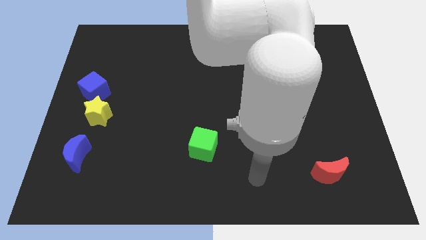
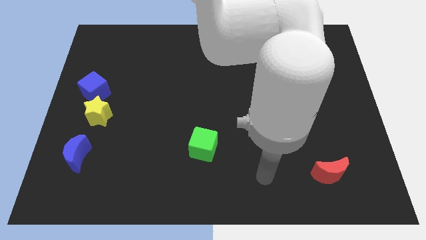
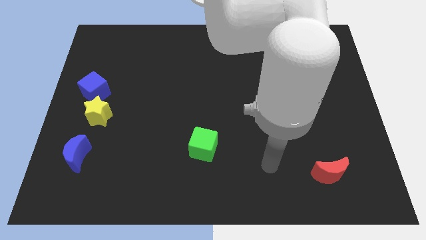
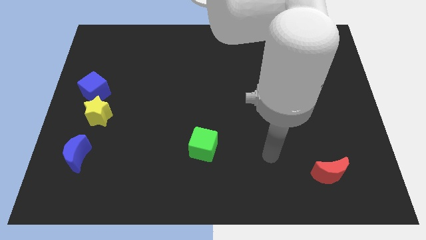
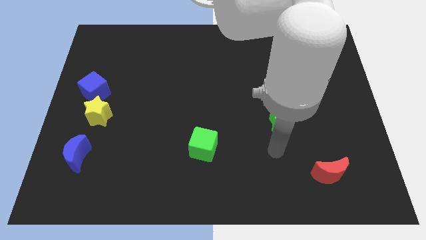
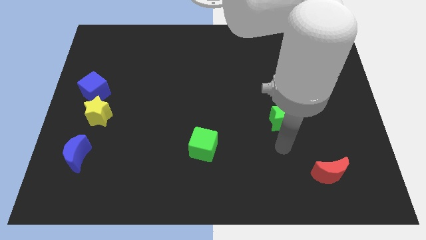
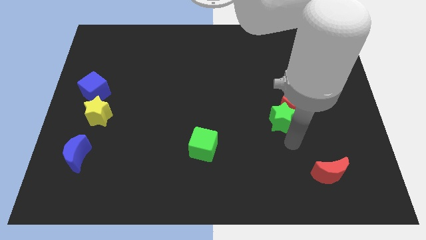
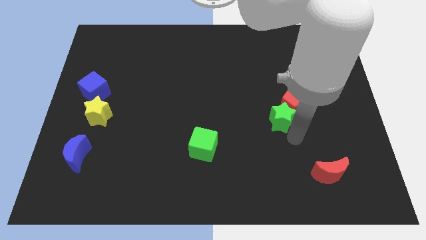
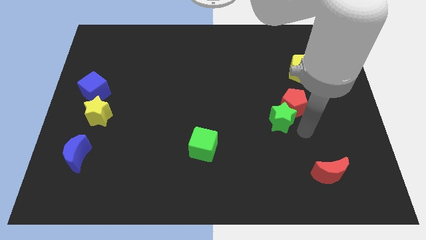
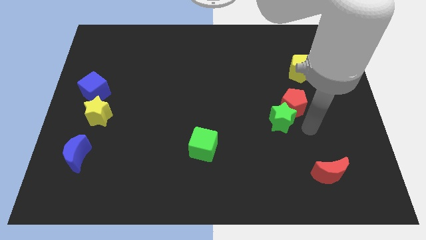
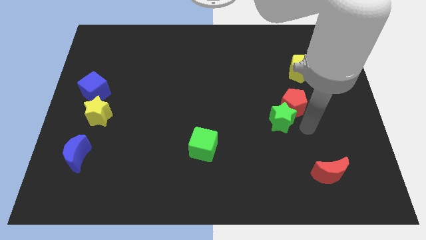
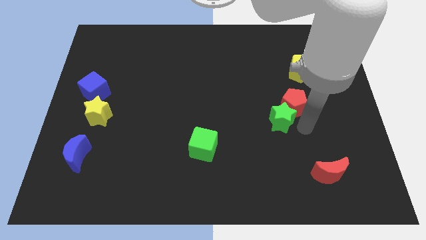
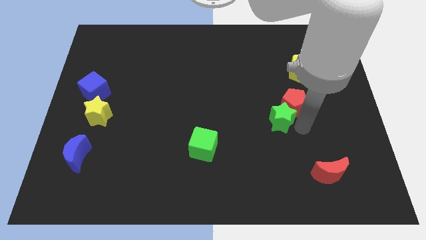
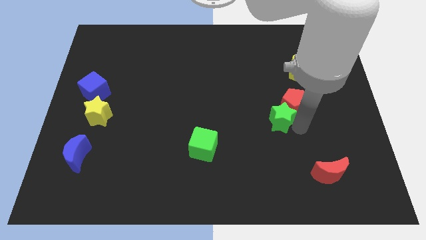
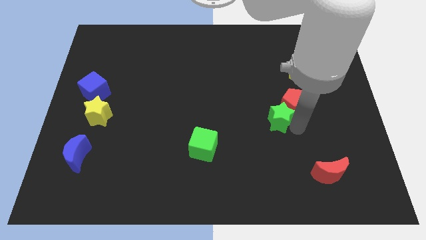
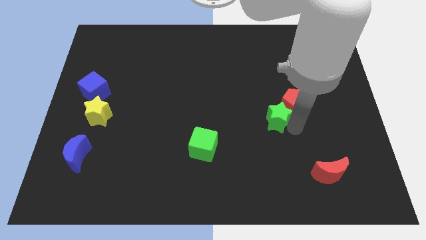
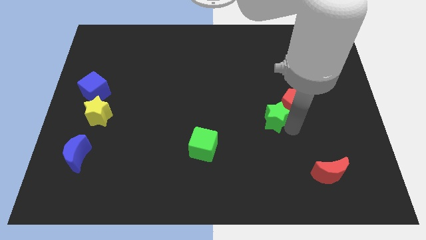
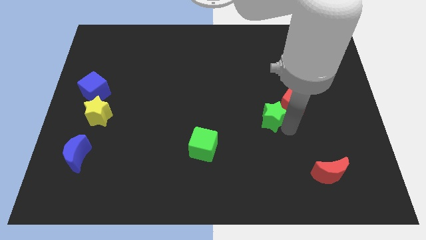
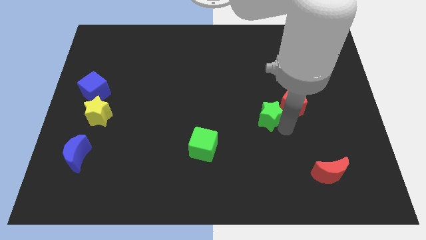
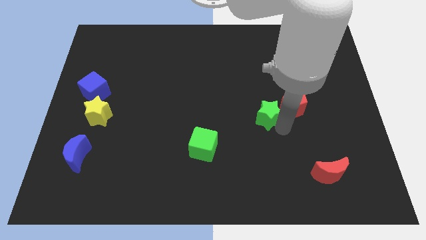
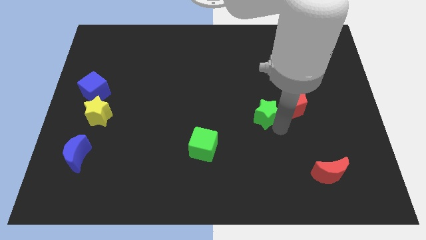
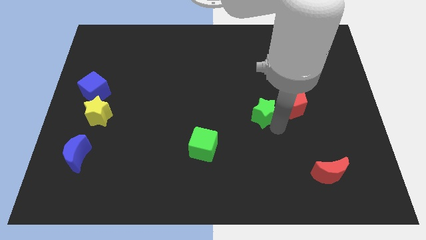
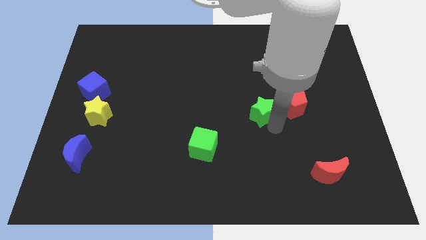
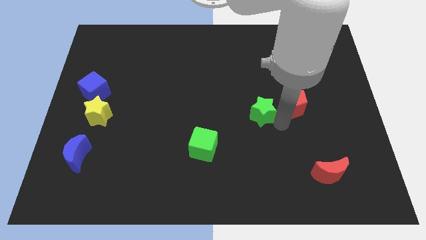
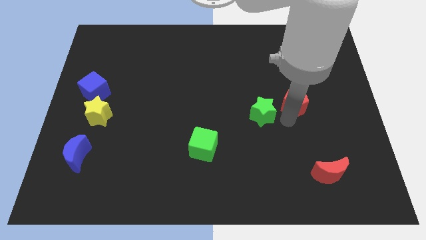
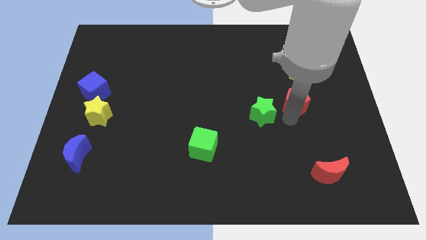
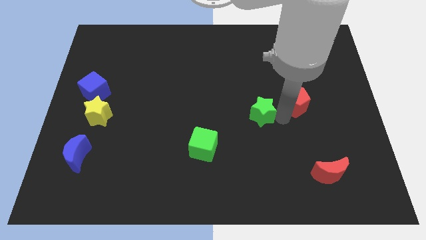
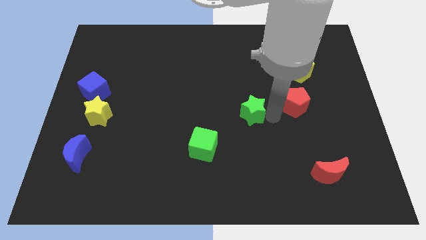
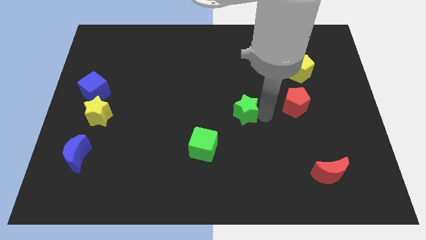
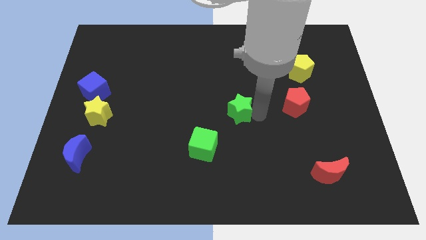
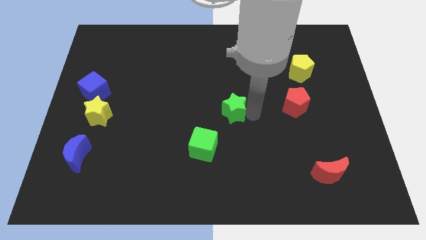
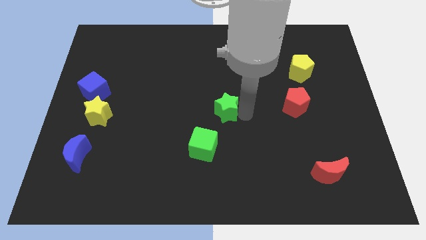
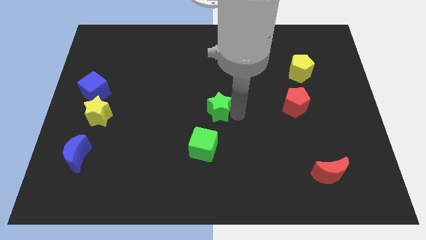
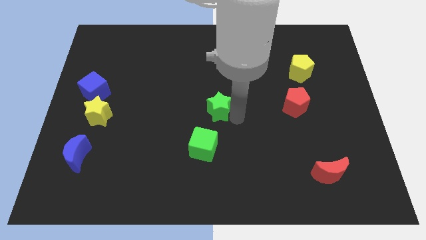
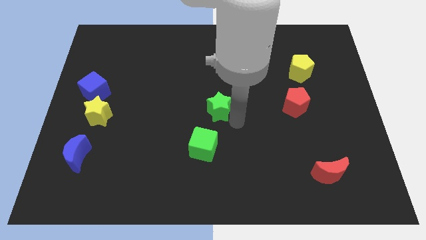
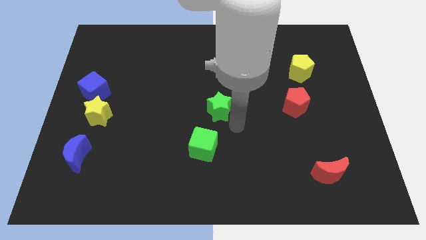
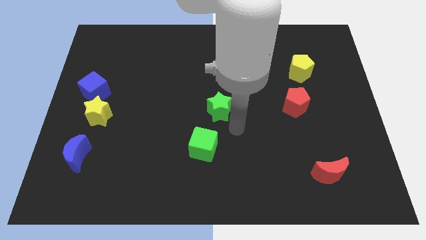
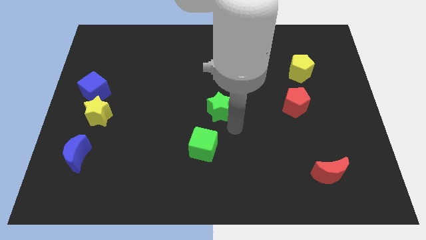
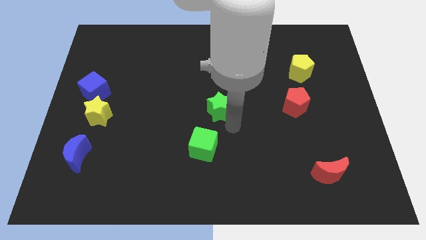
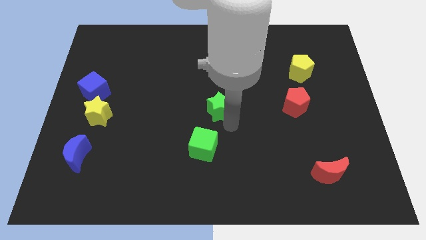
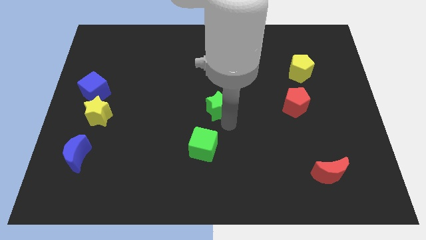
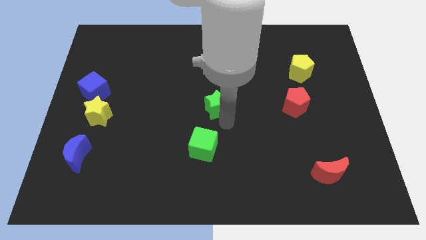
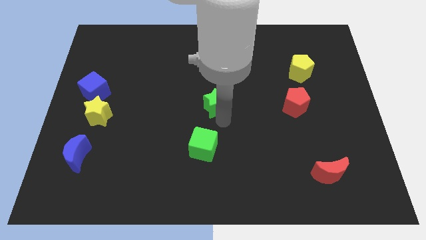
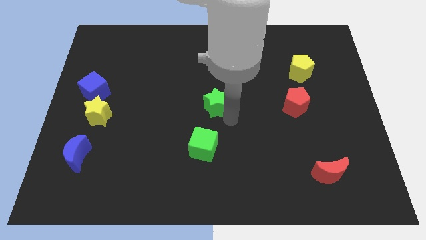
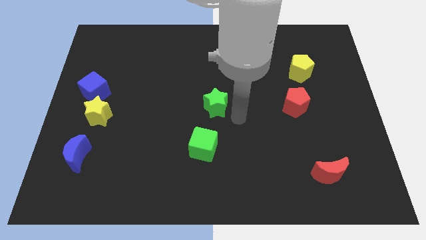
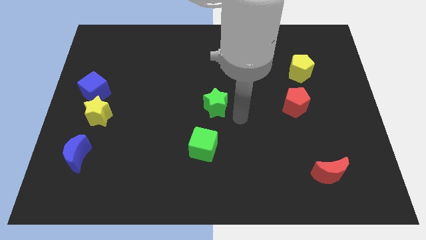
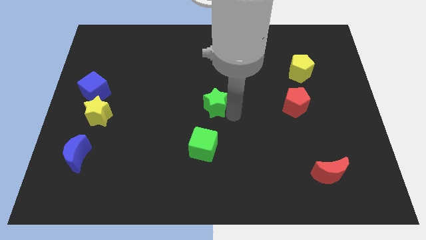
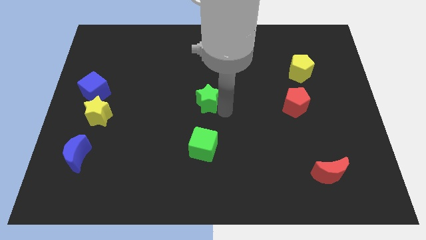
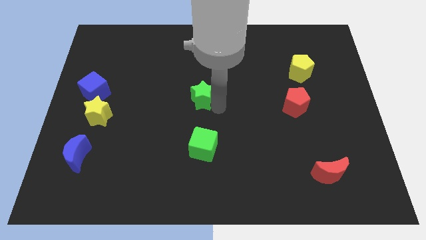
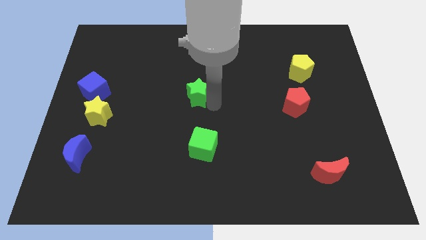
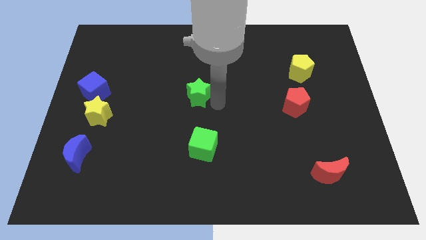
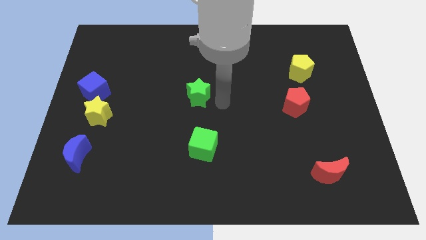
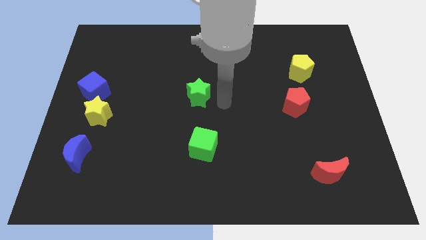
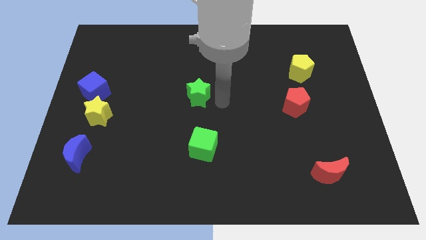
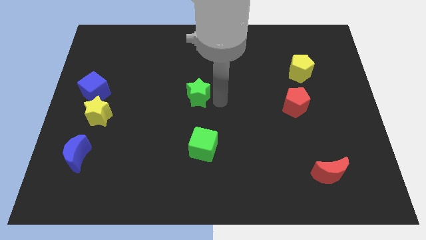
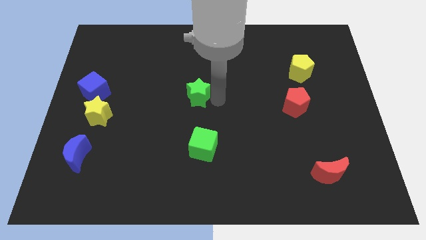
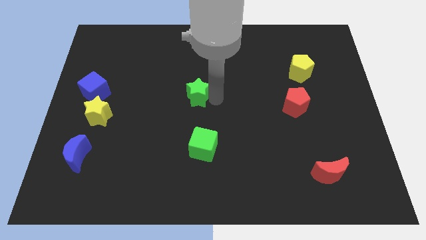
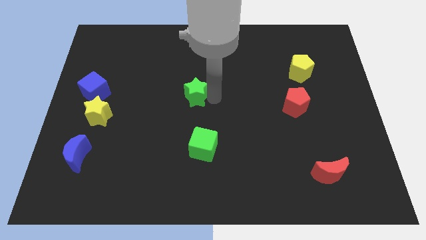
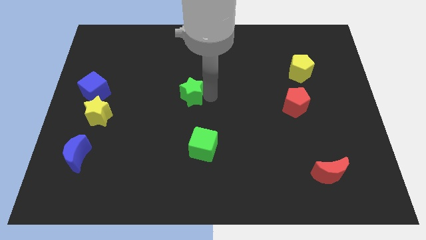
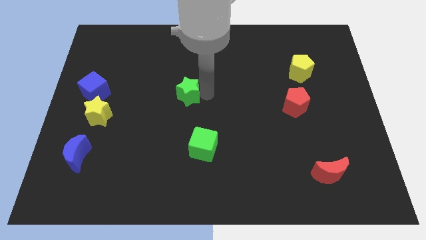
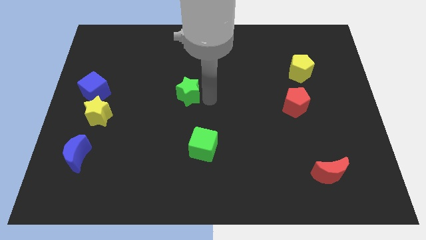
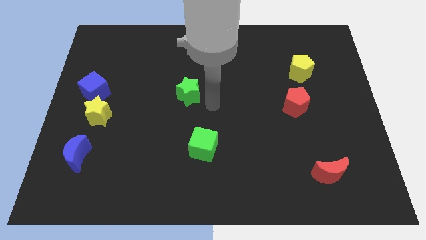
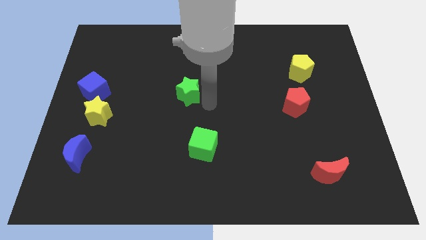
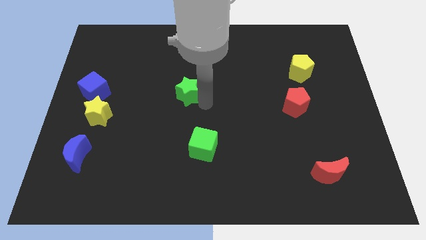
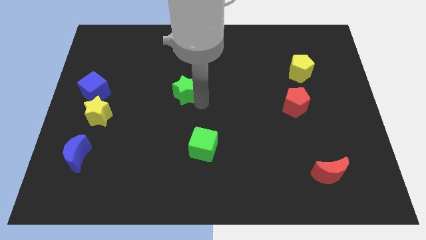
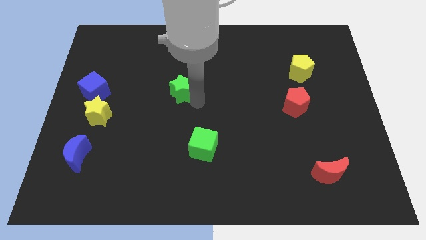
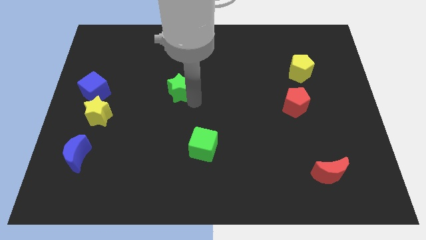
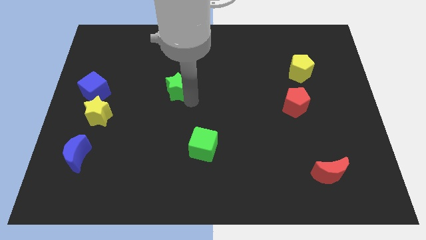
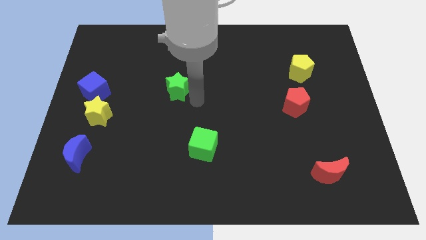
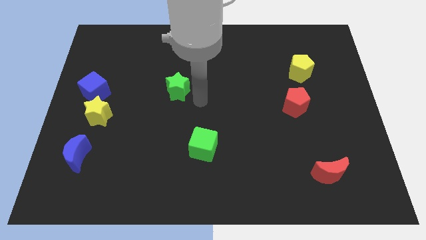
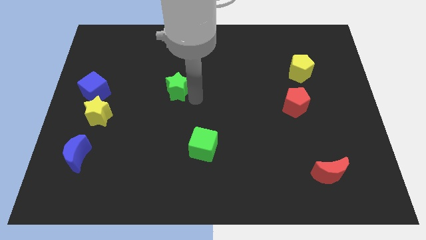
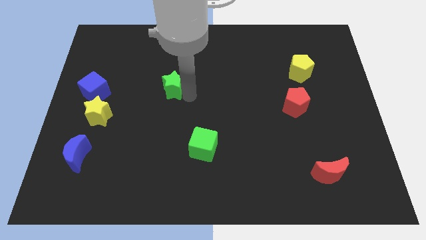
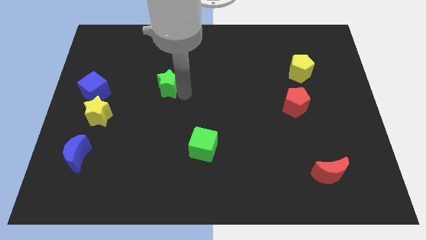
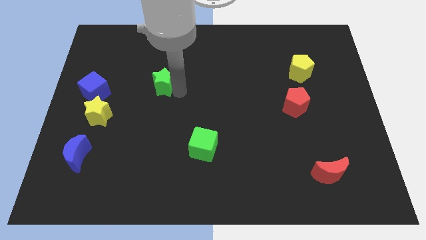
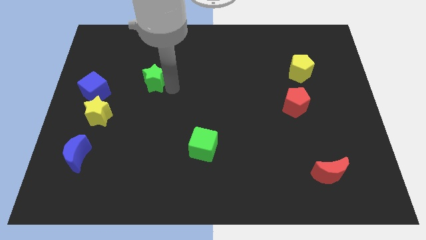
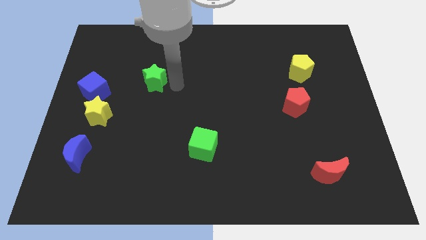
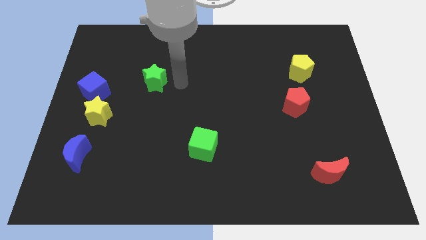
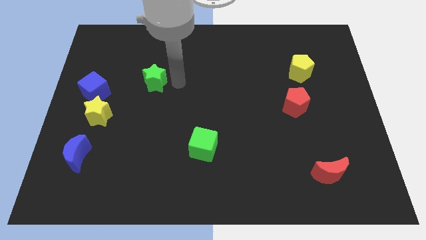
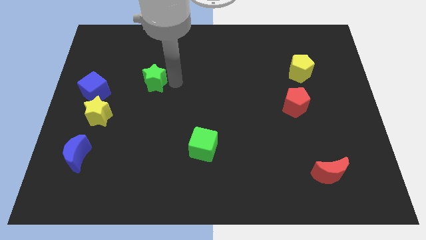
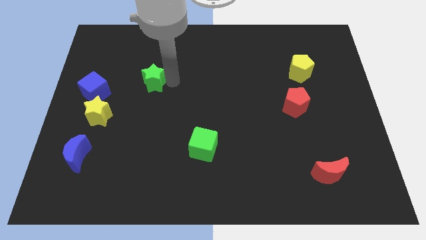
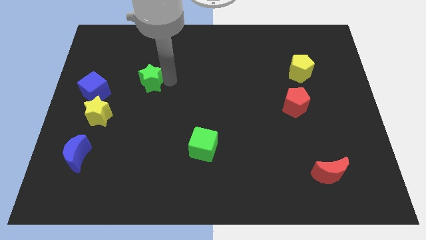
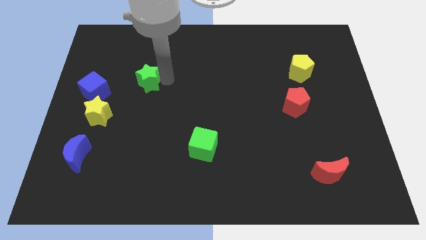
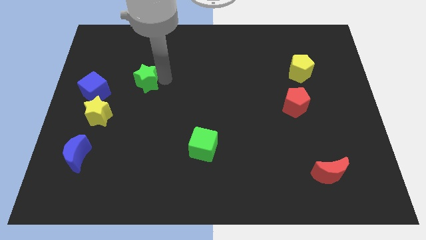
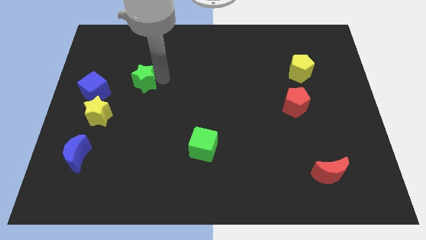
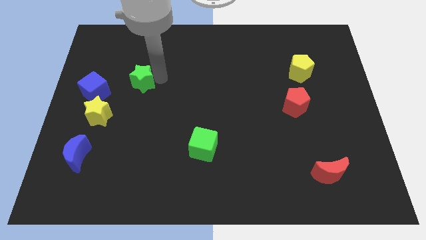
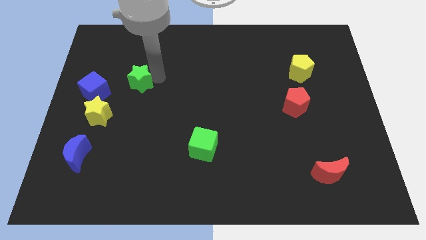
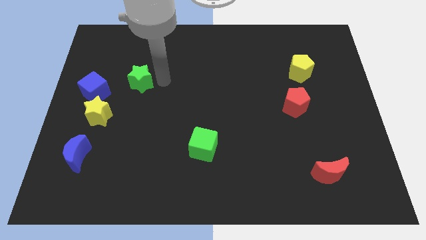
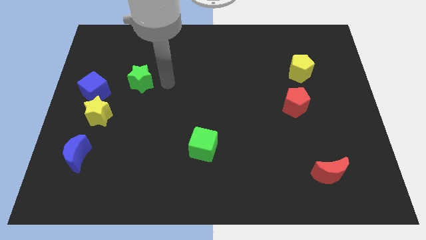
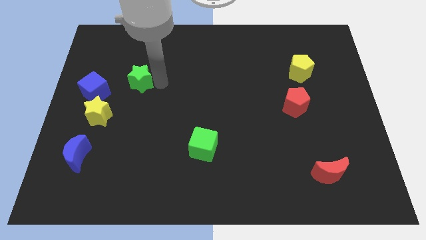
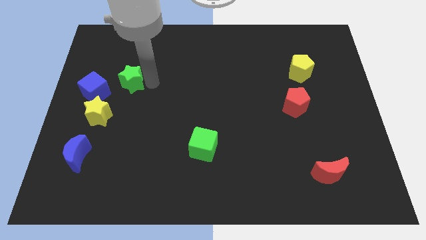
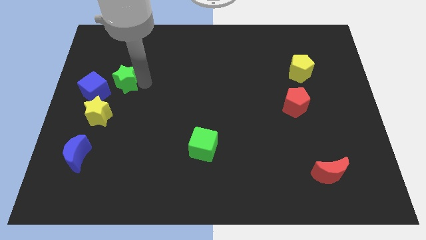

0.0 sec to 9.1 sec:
put the green star to the top side of the yellow star
